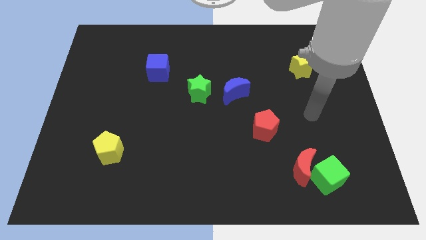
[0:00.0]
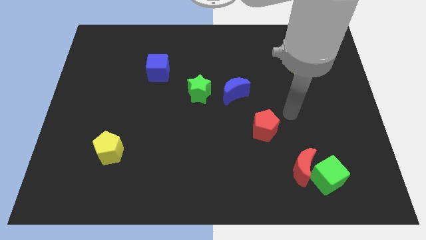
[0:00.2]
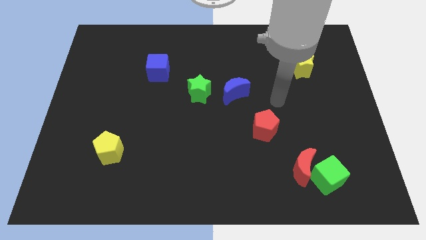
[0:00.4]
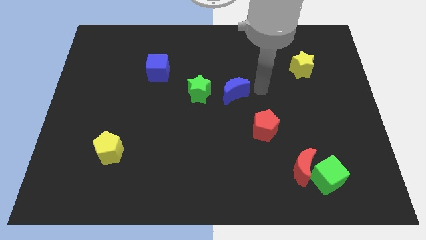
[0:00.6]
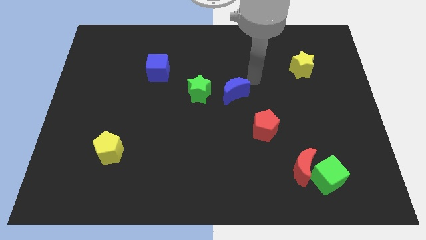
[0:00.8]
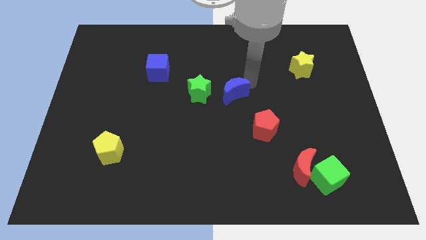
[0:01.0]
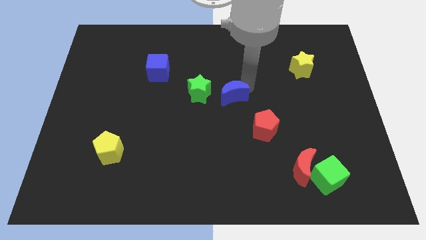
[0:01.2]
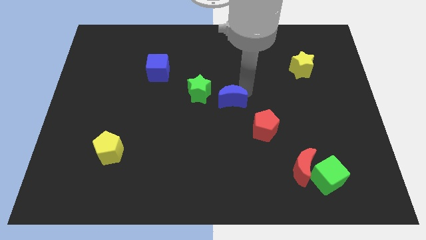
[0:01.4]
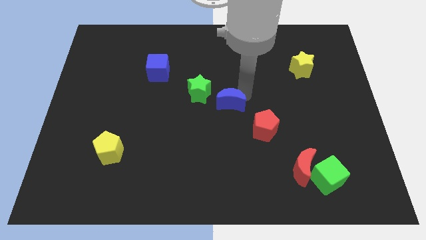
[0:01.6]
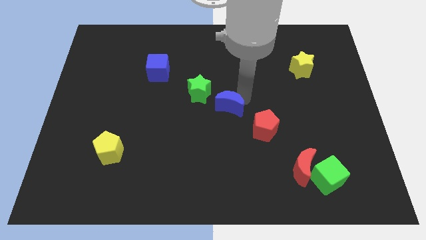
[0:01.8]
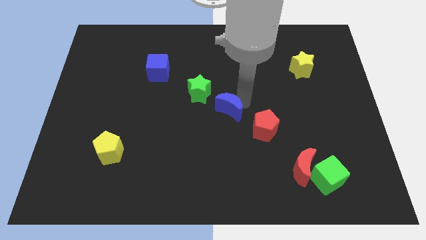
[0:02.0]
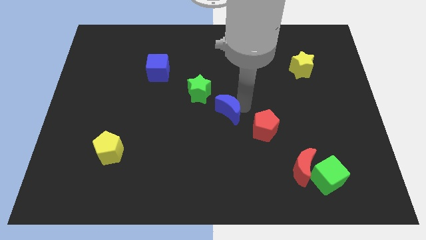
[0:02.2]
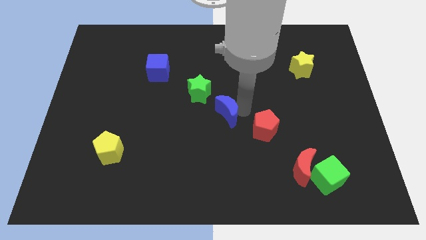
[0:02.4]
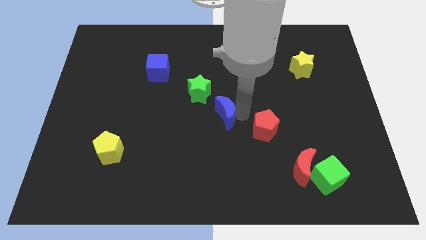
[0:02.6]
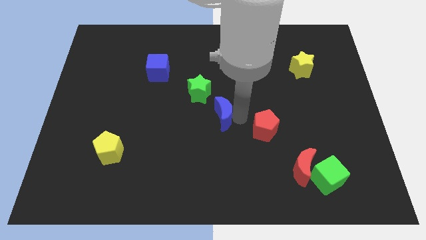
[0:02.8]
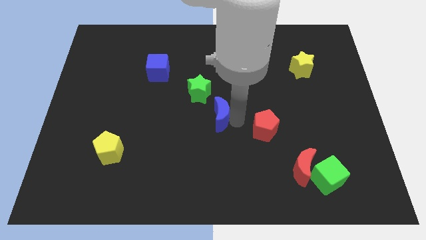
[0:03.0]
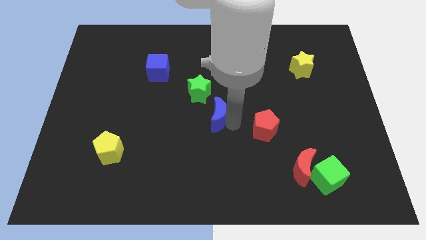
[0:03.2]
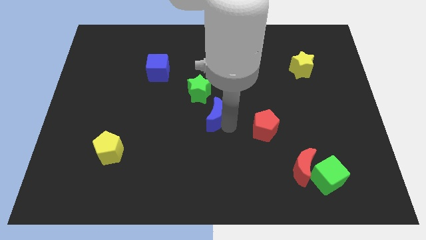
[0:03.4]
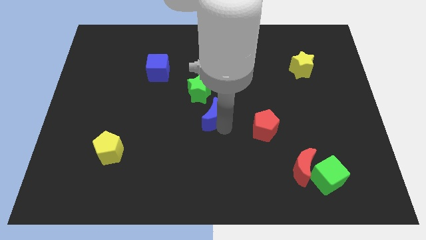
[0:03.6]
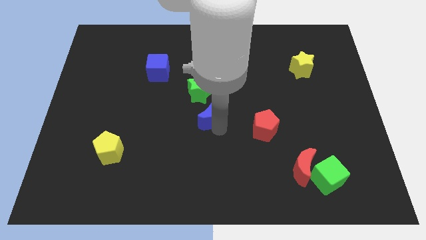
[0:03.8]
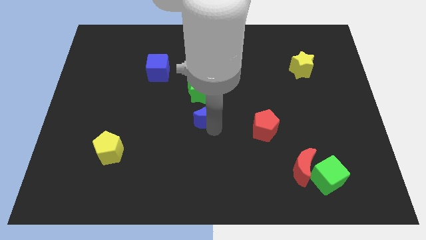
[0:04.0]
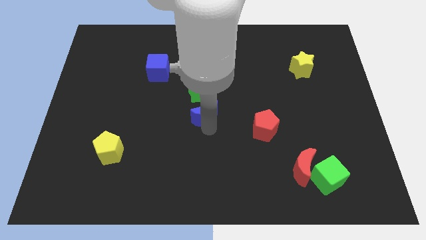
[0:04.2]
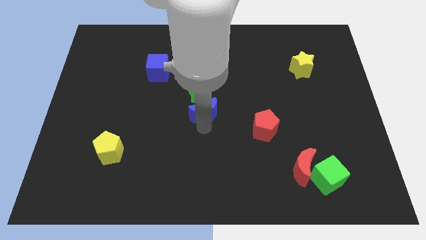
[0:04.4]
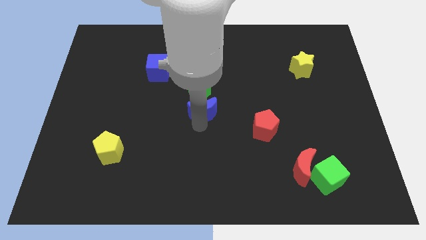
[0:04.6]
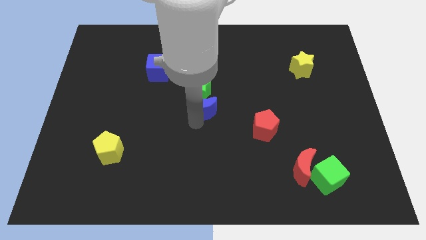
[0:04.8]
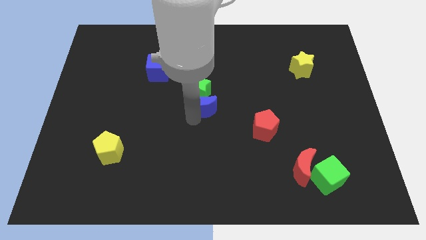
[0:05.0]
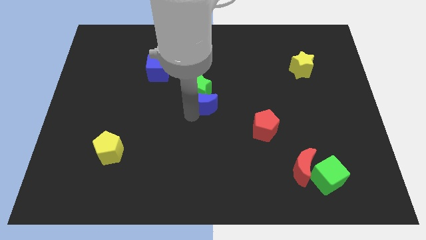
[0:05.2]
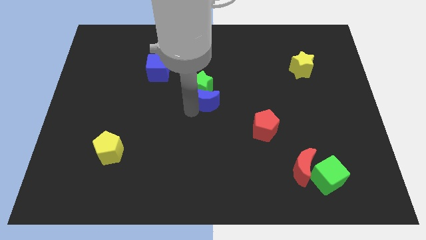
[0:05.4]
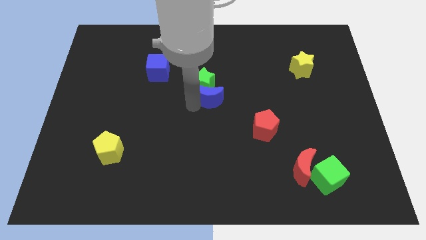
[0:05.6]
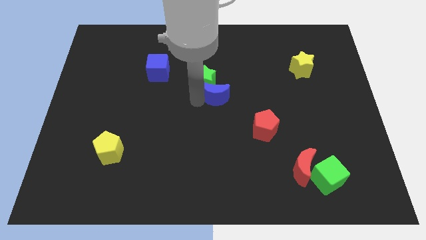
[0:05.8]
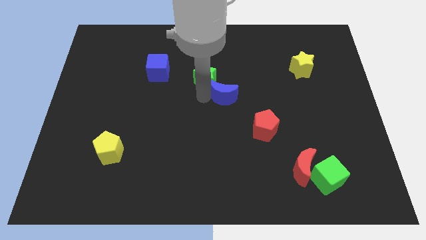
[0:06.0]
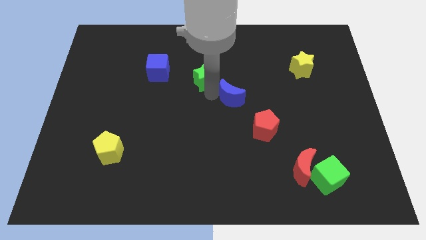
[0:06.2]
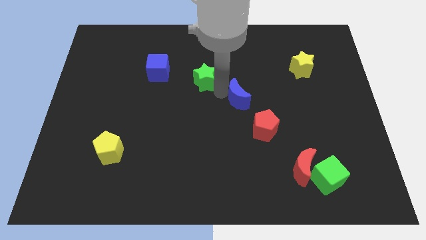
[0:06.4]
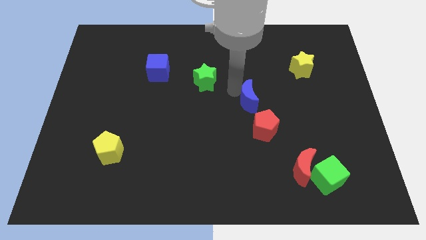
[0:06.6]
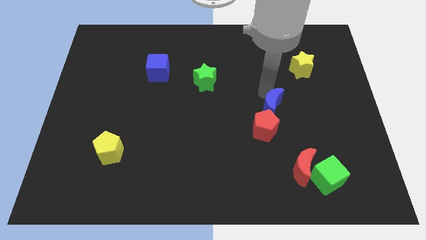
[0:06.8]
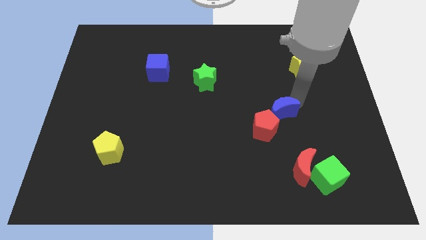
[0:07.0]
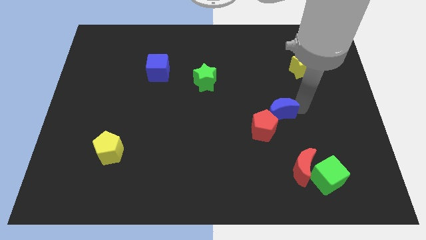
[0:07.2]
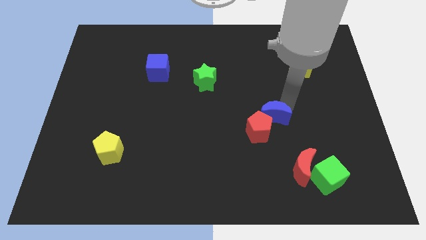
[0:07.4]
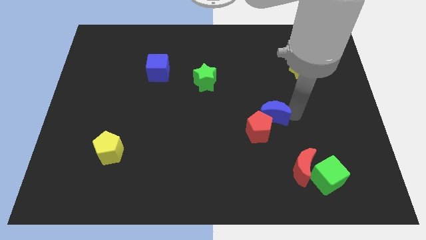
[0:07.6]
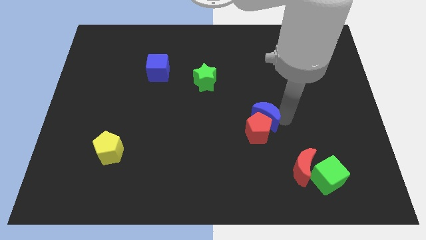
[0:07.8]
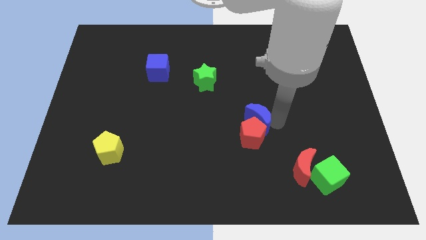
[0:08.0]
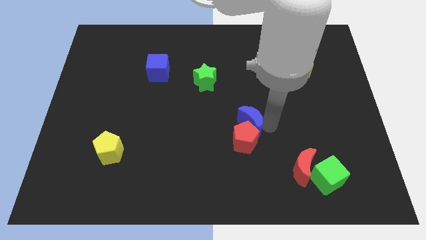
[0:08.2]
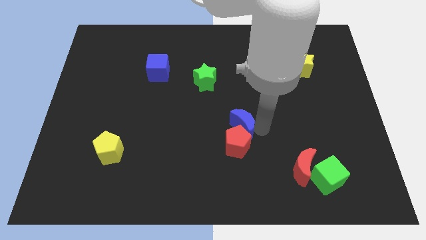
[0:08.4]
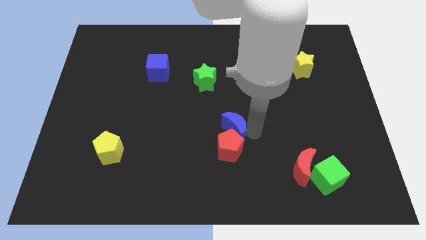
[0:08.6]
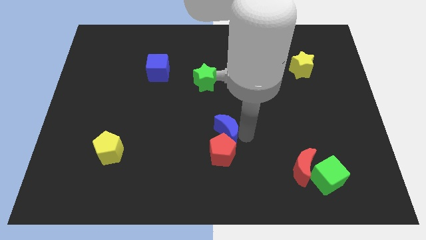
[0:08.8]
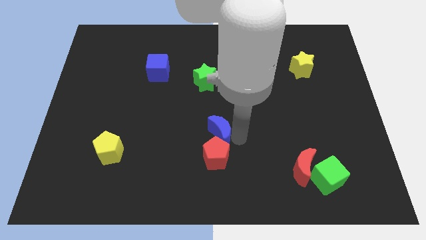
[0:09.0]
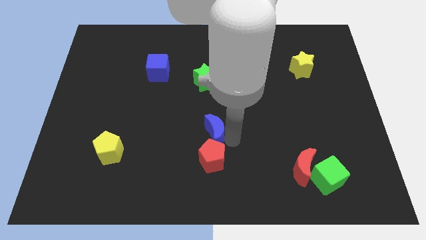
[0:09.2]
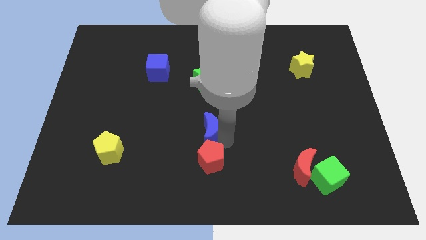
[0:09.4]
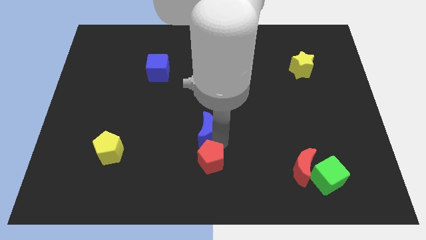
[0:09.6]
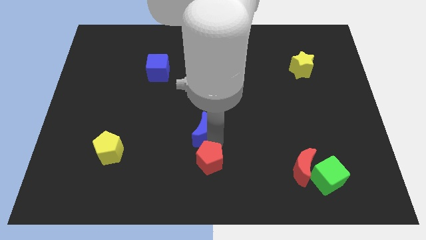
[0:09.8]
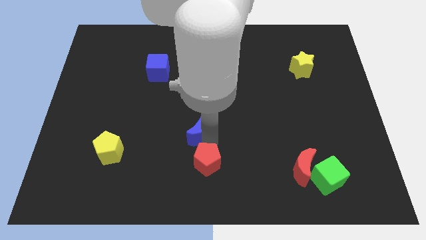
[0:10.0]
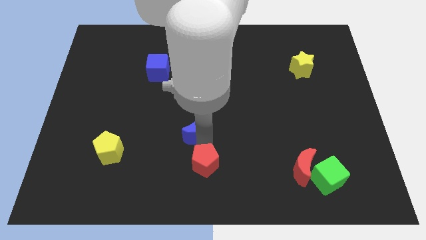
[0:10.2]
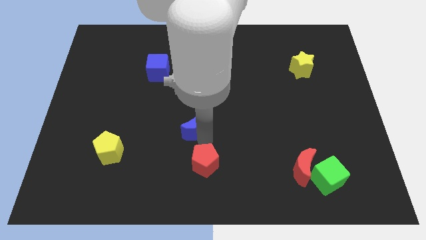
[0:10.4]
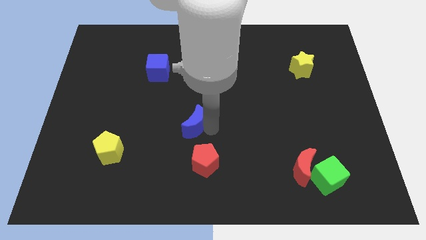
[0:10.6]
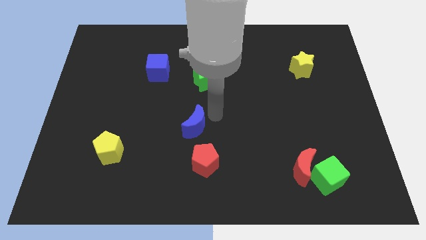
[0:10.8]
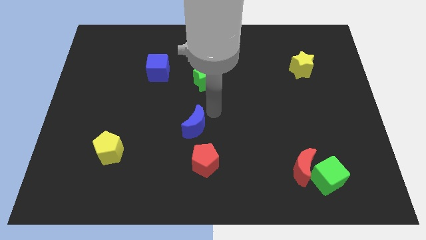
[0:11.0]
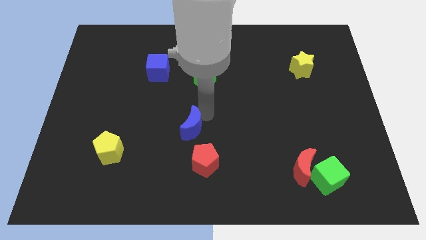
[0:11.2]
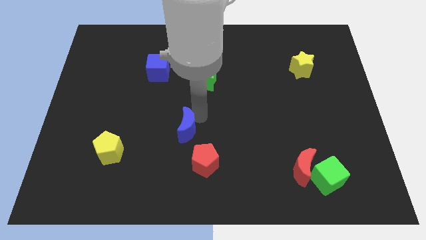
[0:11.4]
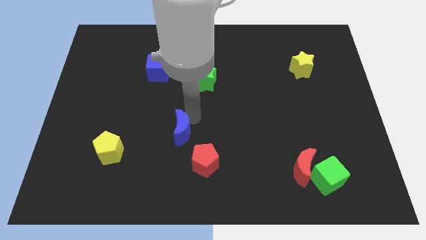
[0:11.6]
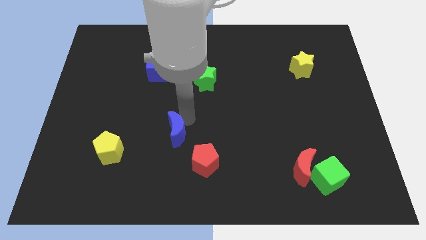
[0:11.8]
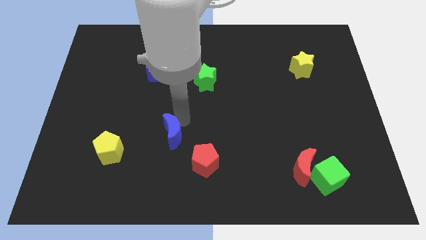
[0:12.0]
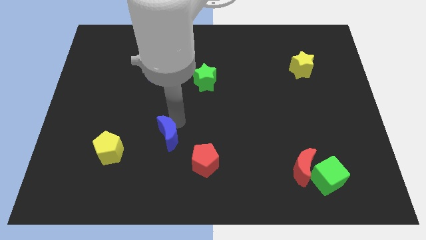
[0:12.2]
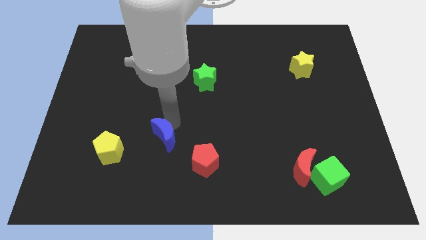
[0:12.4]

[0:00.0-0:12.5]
push the blue moon downwards and left diagonally

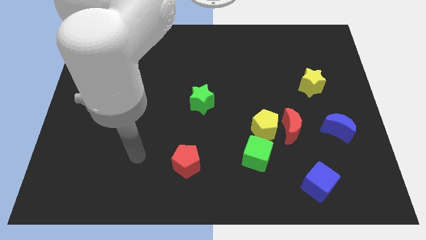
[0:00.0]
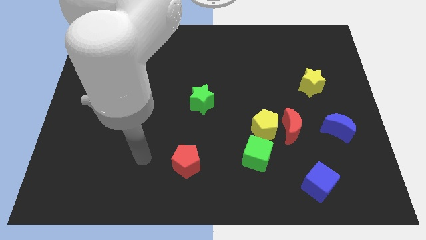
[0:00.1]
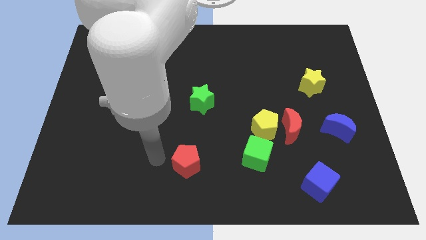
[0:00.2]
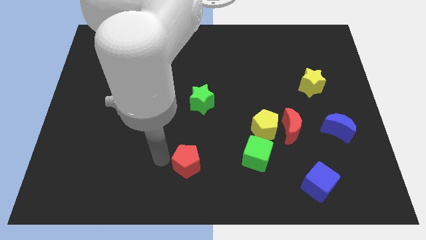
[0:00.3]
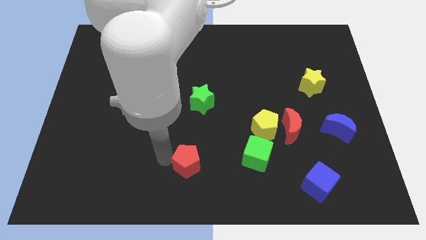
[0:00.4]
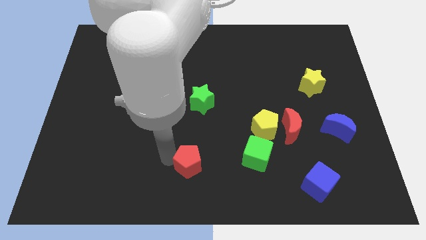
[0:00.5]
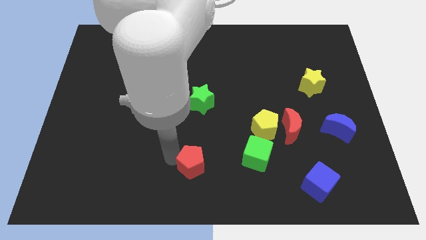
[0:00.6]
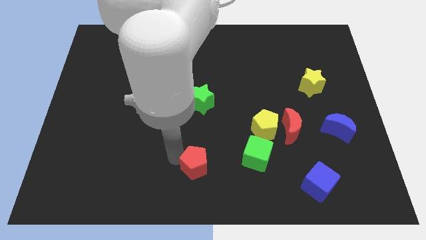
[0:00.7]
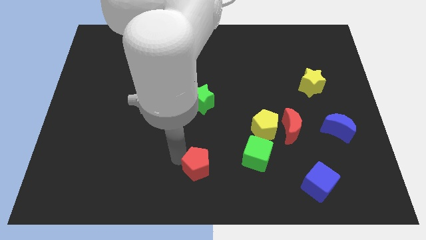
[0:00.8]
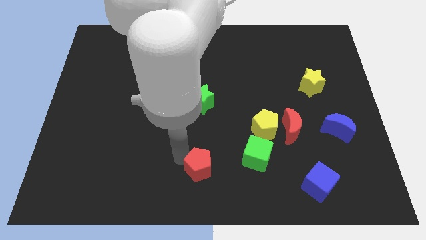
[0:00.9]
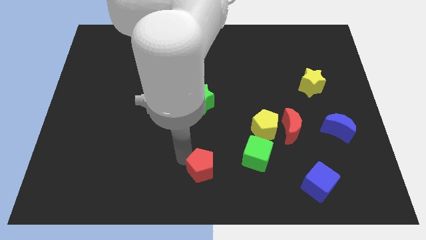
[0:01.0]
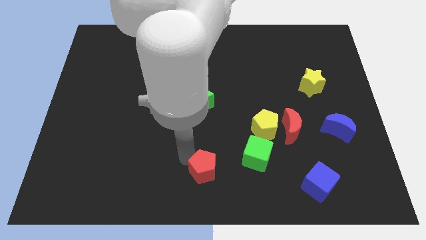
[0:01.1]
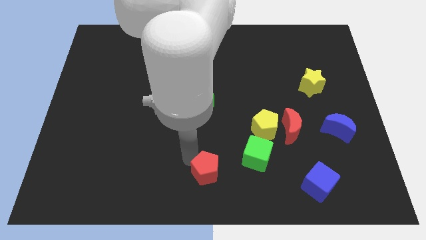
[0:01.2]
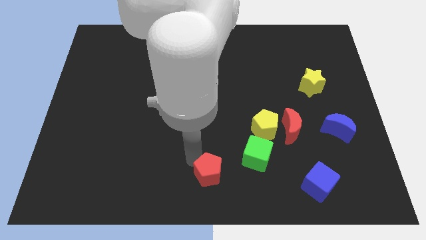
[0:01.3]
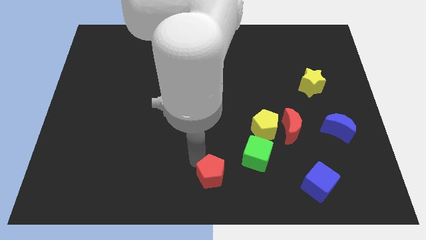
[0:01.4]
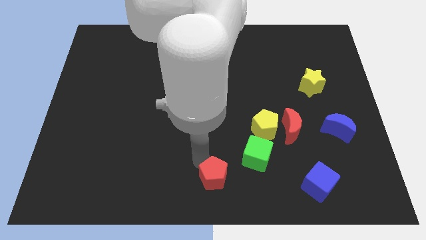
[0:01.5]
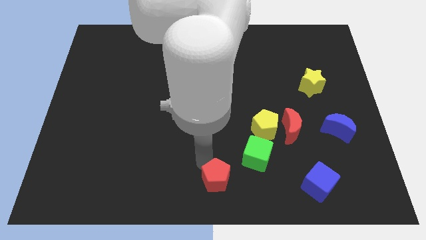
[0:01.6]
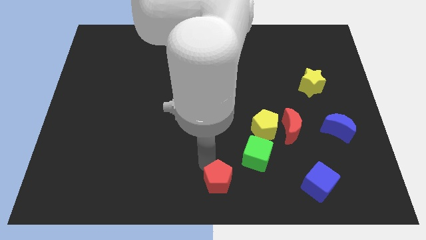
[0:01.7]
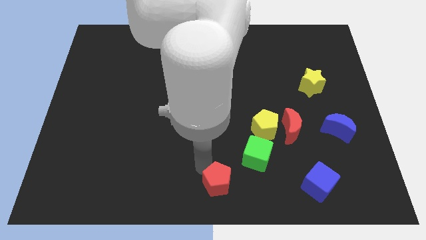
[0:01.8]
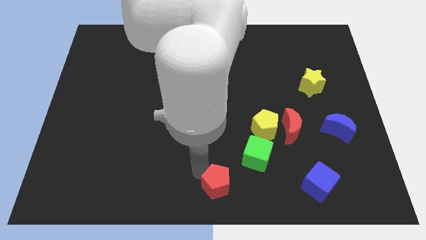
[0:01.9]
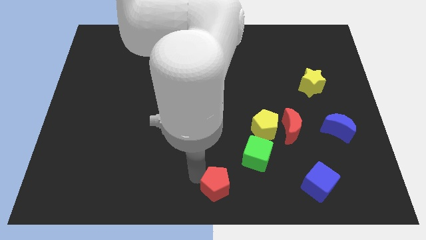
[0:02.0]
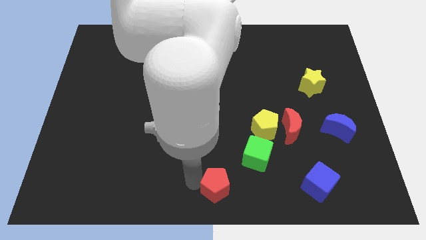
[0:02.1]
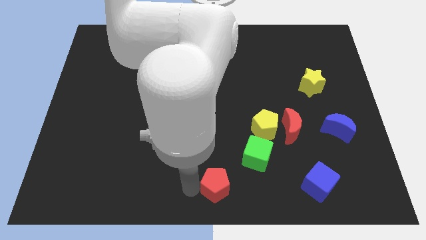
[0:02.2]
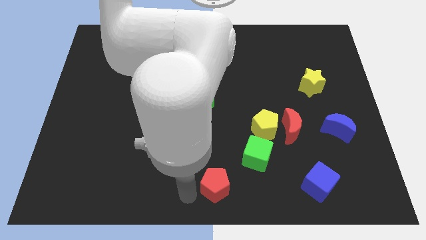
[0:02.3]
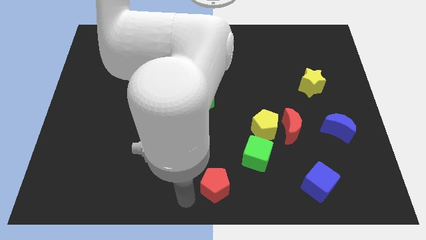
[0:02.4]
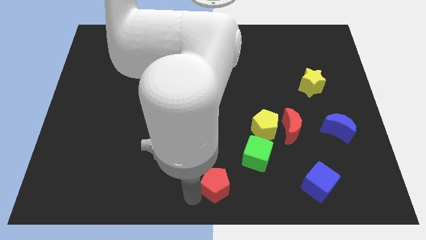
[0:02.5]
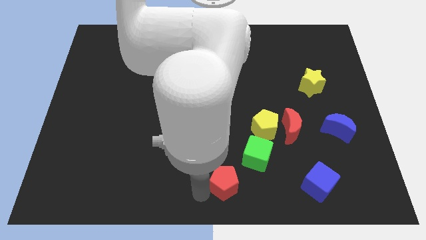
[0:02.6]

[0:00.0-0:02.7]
slightly slide the red pentagon to the right
